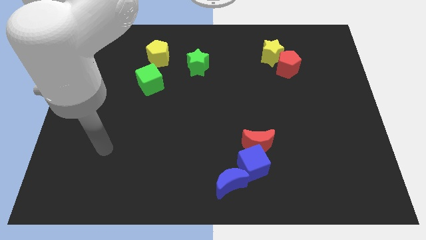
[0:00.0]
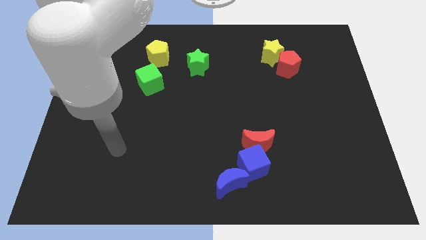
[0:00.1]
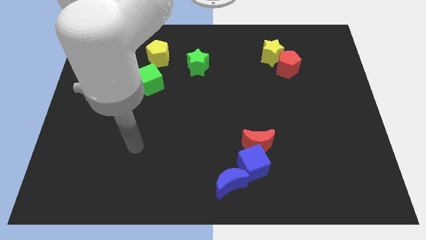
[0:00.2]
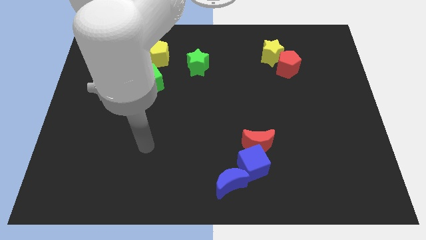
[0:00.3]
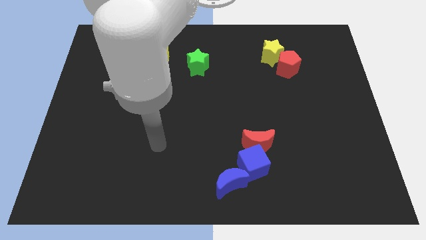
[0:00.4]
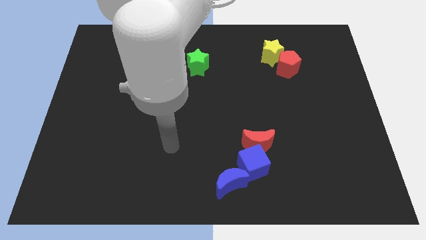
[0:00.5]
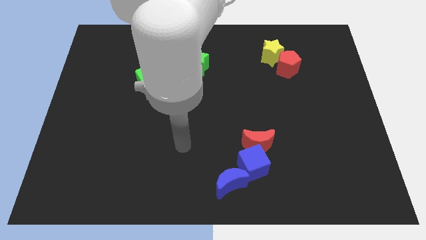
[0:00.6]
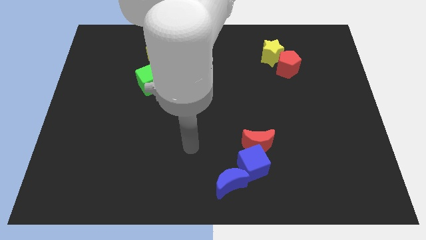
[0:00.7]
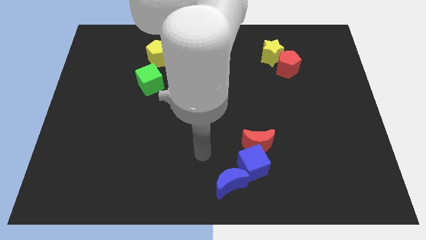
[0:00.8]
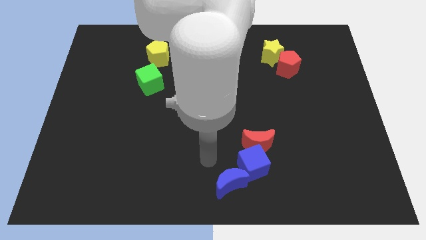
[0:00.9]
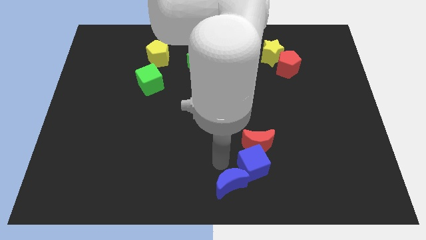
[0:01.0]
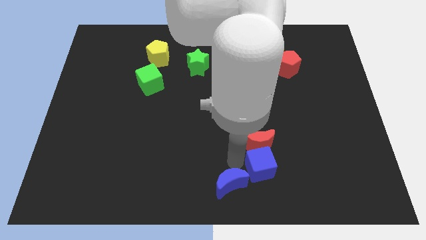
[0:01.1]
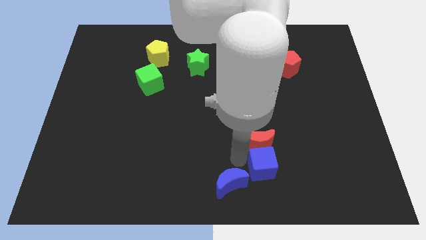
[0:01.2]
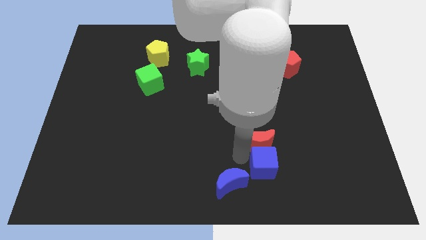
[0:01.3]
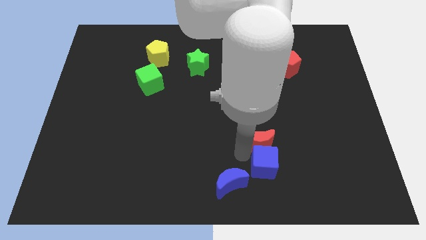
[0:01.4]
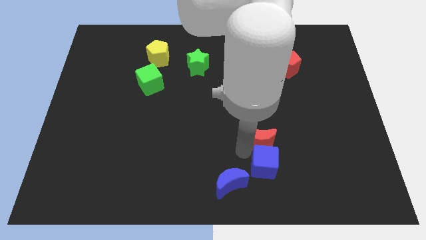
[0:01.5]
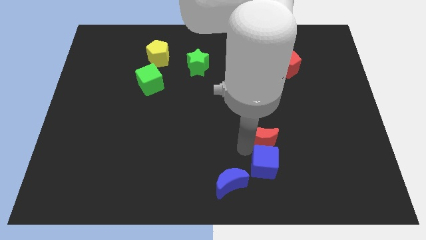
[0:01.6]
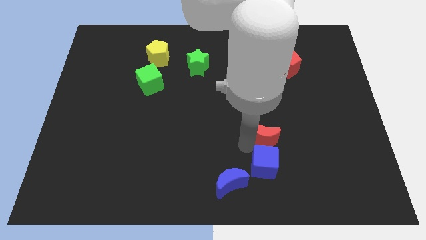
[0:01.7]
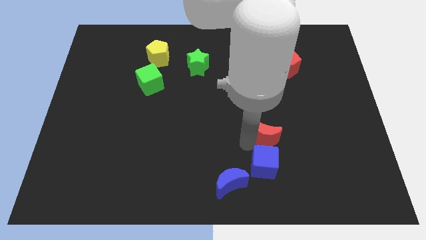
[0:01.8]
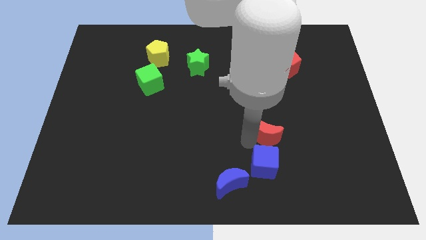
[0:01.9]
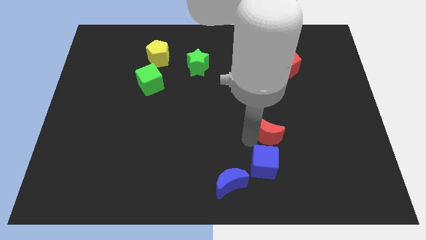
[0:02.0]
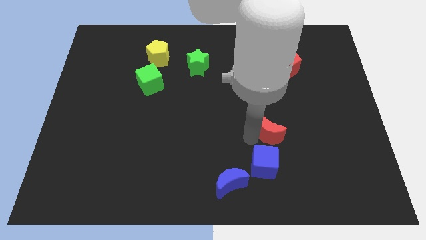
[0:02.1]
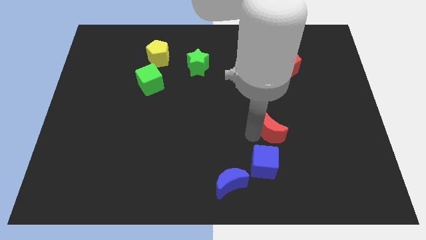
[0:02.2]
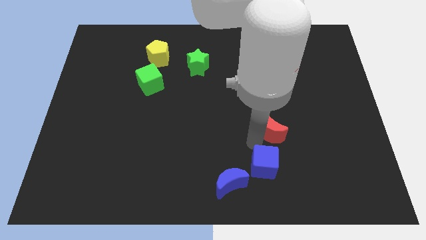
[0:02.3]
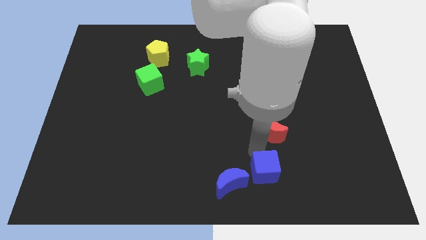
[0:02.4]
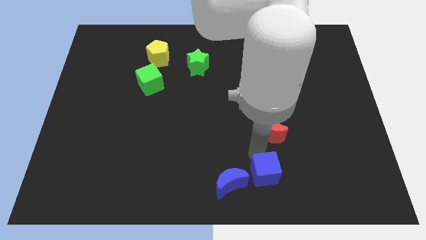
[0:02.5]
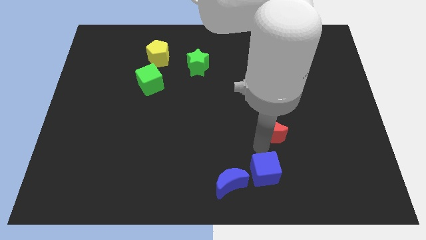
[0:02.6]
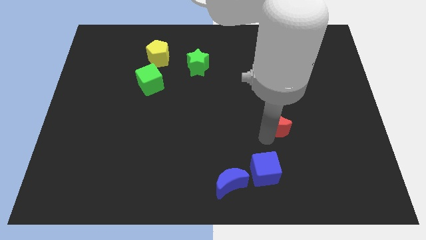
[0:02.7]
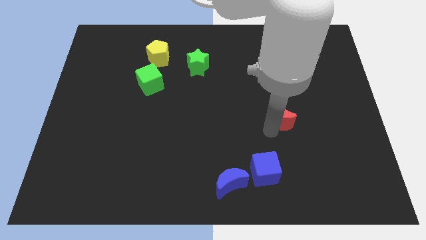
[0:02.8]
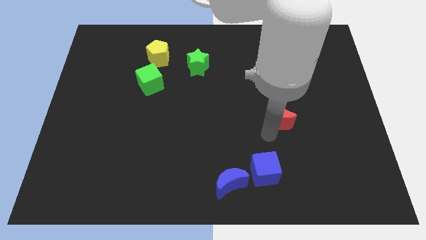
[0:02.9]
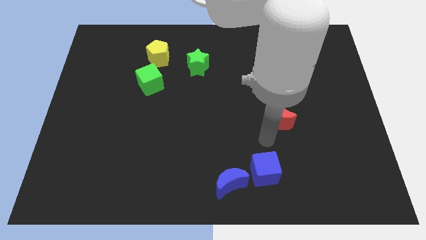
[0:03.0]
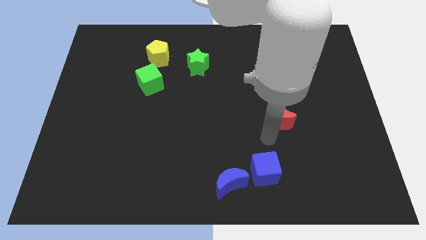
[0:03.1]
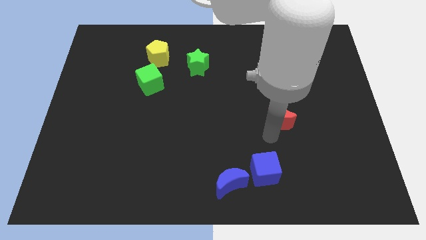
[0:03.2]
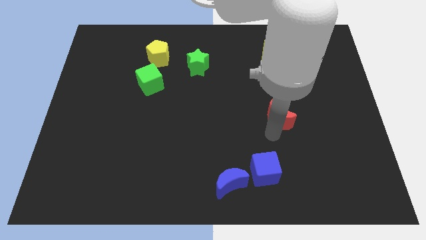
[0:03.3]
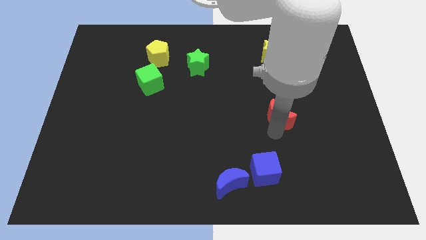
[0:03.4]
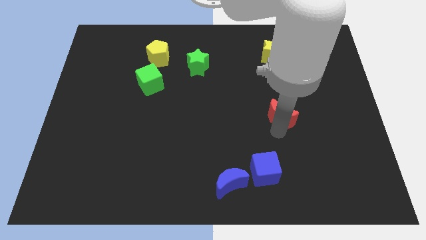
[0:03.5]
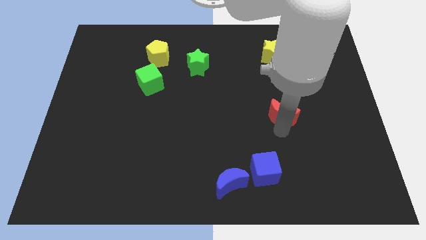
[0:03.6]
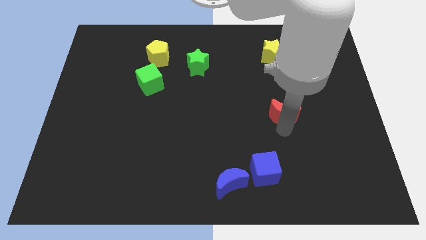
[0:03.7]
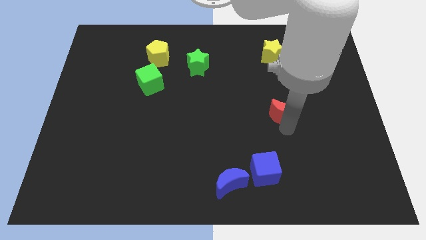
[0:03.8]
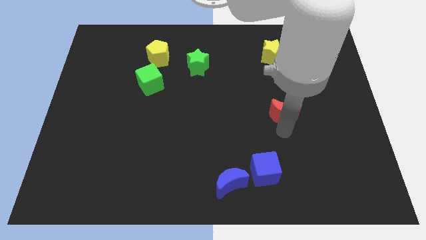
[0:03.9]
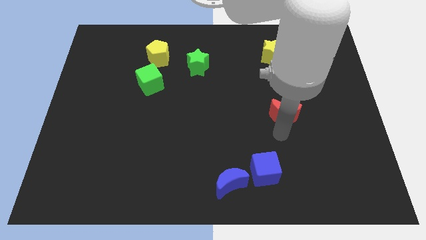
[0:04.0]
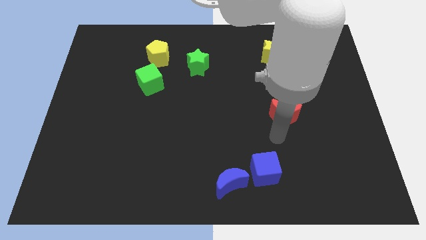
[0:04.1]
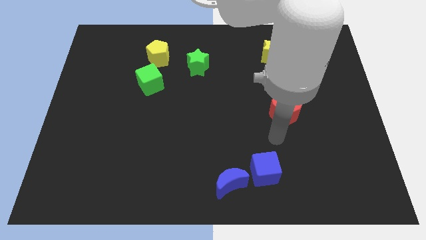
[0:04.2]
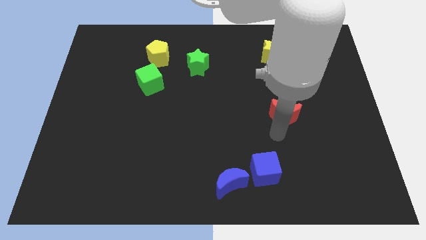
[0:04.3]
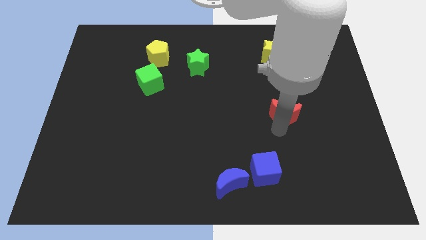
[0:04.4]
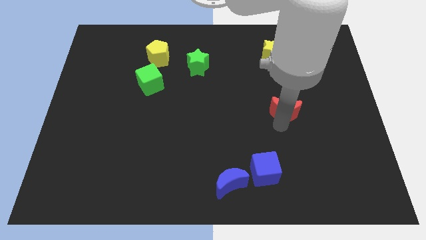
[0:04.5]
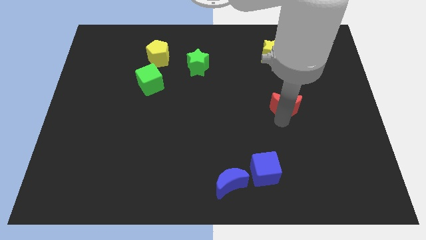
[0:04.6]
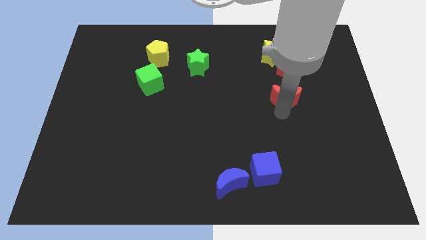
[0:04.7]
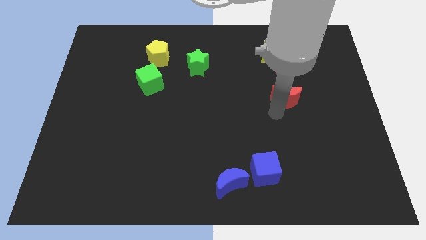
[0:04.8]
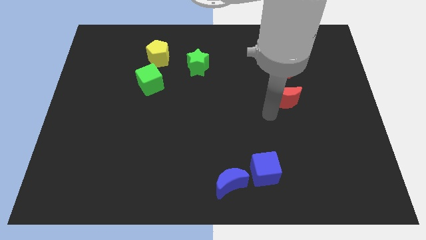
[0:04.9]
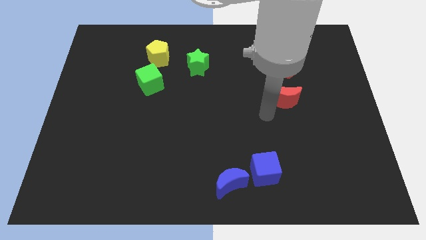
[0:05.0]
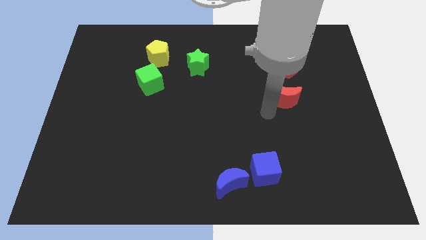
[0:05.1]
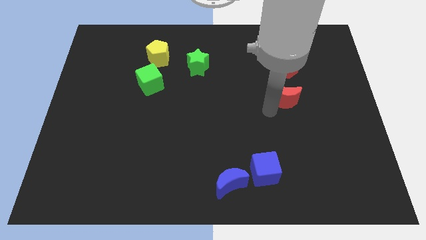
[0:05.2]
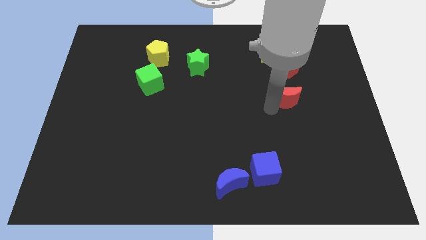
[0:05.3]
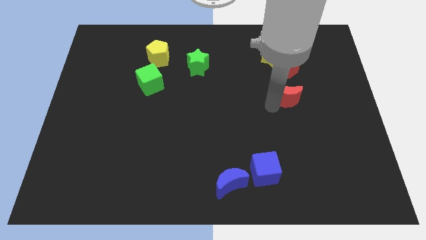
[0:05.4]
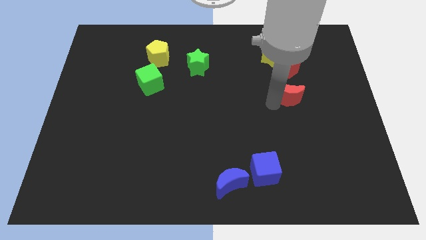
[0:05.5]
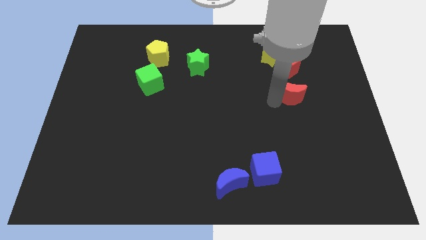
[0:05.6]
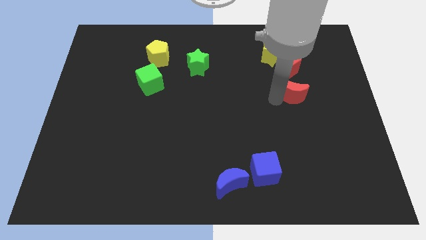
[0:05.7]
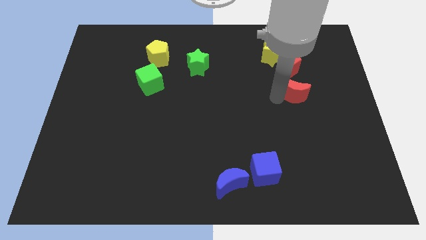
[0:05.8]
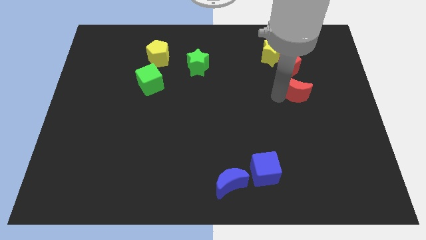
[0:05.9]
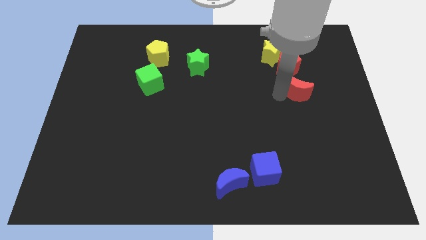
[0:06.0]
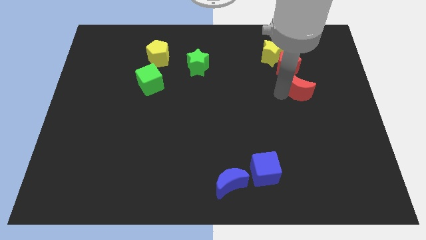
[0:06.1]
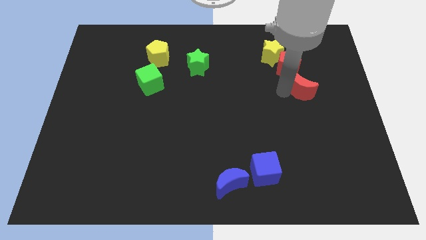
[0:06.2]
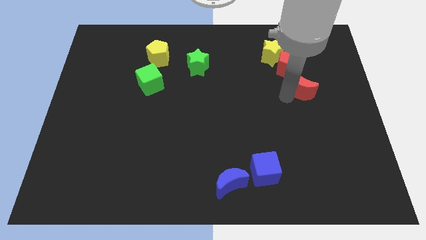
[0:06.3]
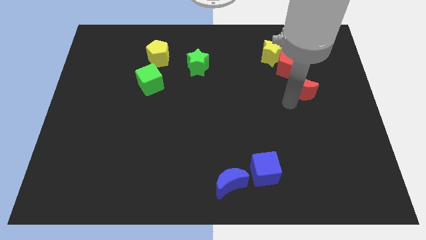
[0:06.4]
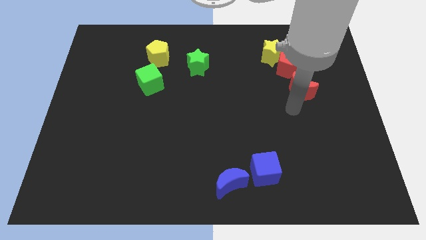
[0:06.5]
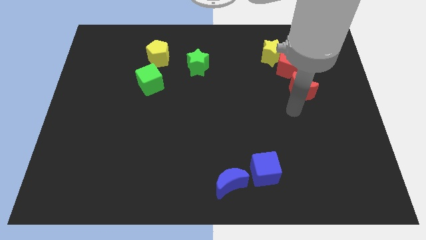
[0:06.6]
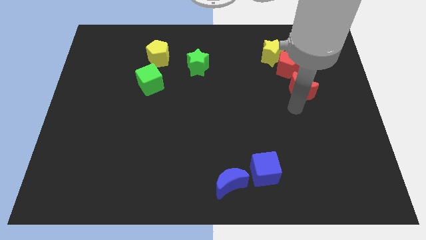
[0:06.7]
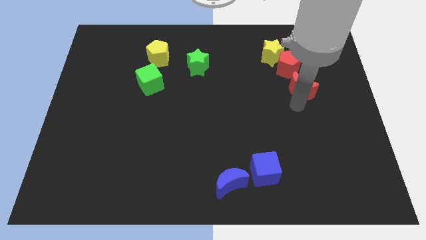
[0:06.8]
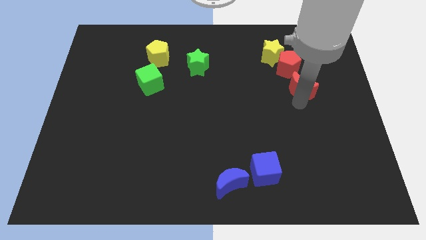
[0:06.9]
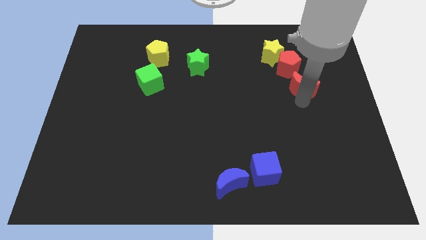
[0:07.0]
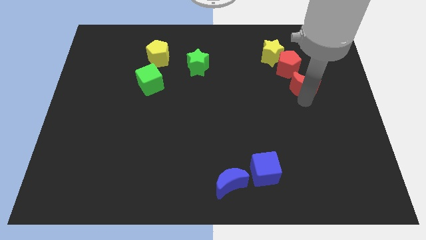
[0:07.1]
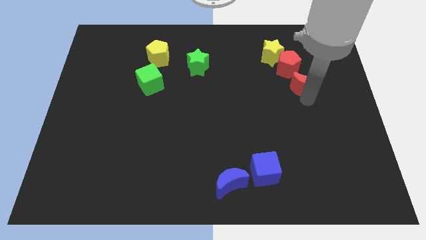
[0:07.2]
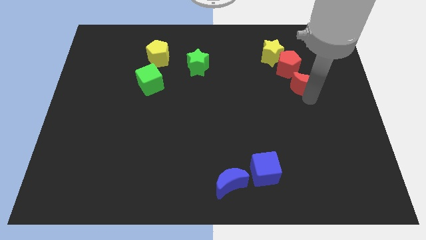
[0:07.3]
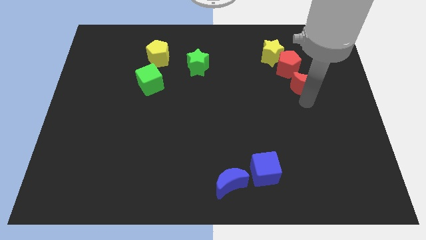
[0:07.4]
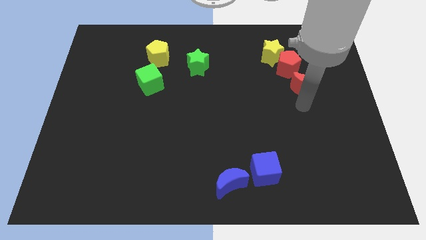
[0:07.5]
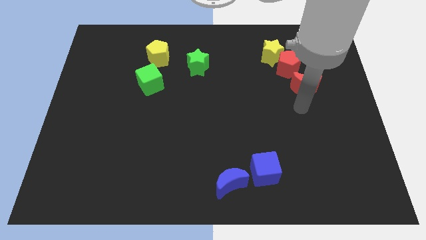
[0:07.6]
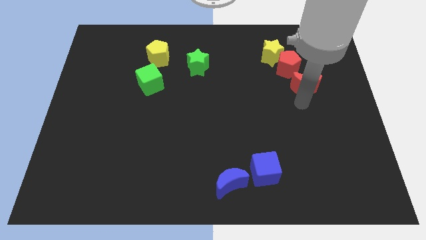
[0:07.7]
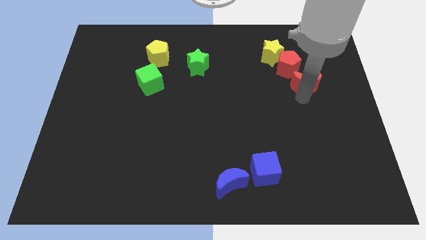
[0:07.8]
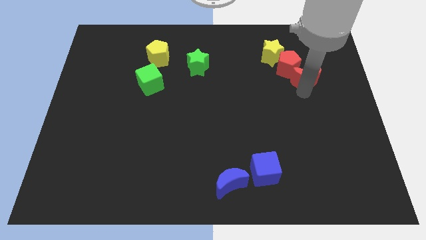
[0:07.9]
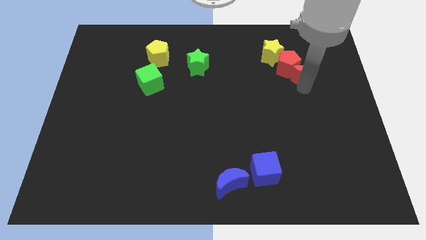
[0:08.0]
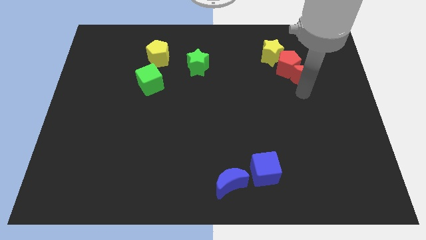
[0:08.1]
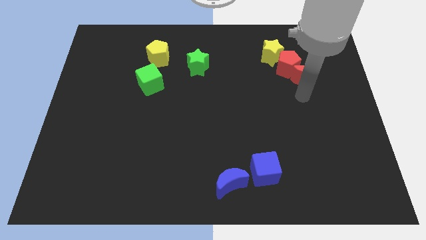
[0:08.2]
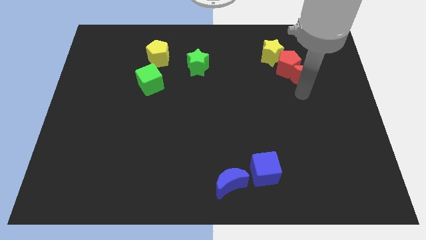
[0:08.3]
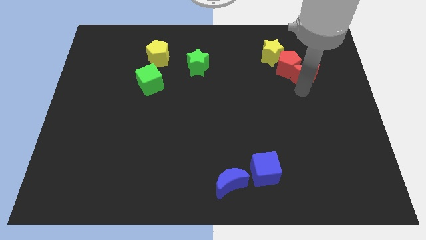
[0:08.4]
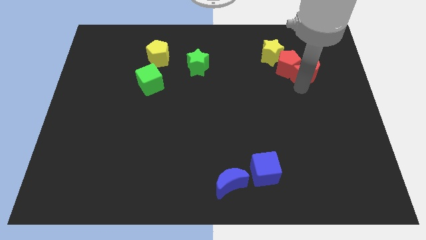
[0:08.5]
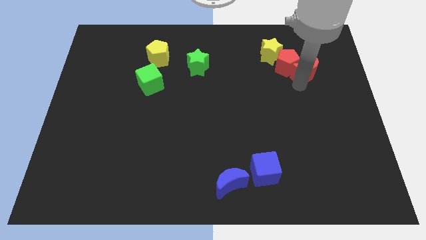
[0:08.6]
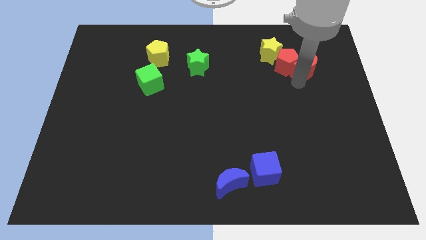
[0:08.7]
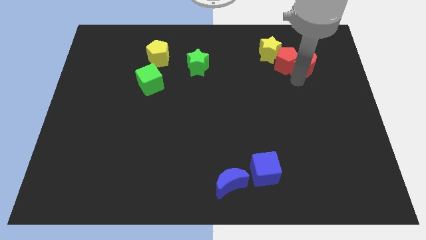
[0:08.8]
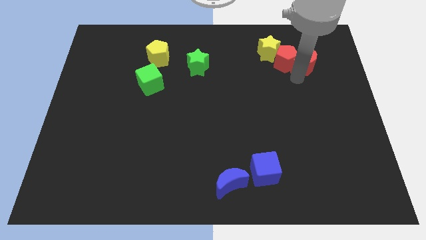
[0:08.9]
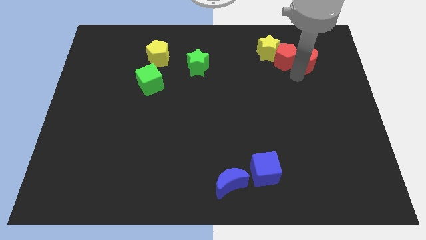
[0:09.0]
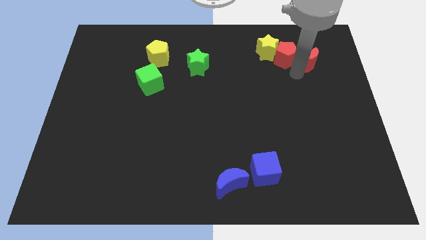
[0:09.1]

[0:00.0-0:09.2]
put the red moon right of the yellow star
